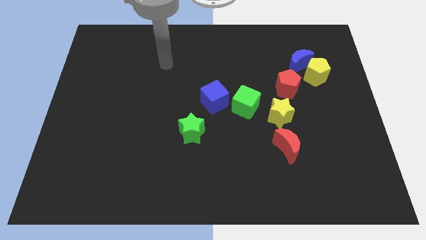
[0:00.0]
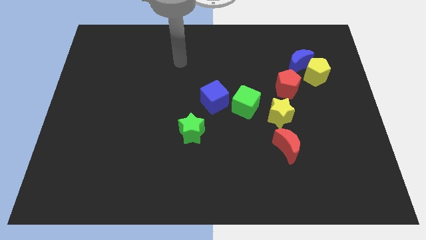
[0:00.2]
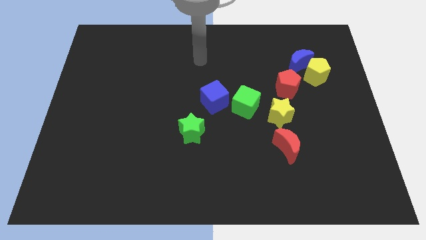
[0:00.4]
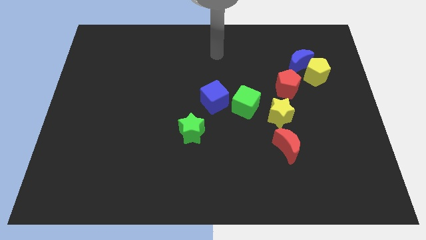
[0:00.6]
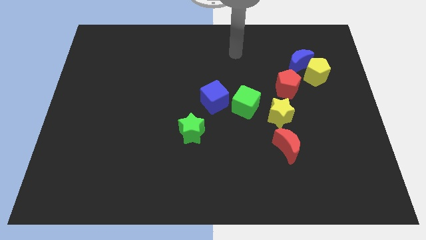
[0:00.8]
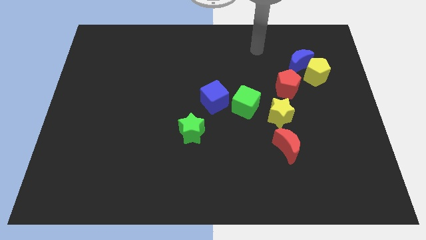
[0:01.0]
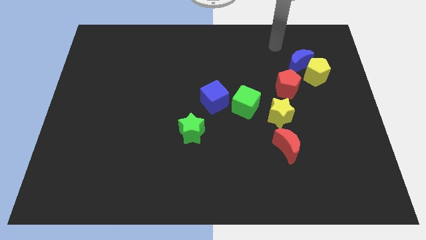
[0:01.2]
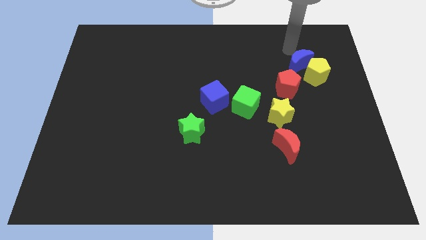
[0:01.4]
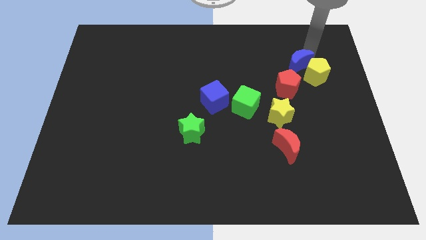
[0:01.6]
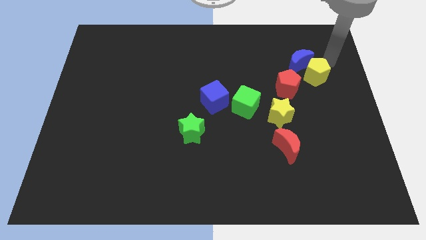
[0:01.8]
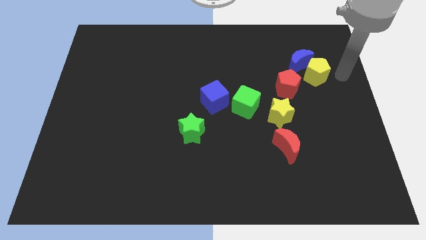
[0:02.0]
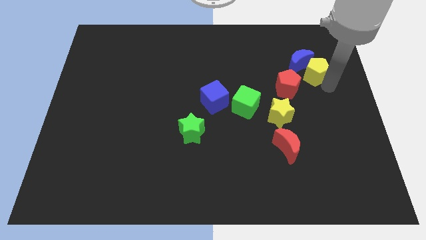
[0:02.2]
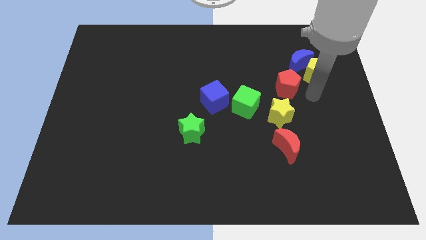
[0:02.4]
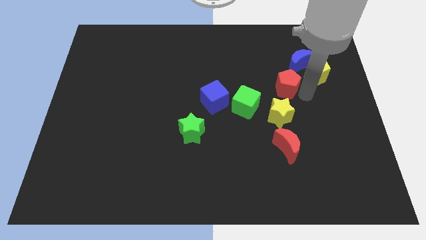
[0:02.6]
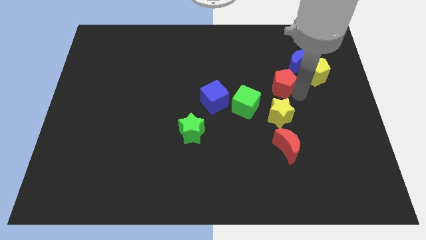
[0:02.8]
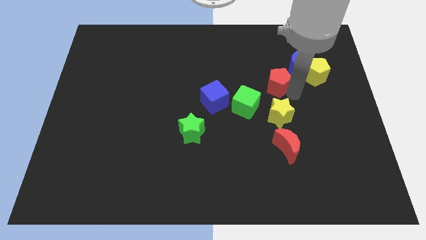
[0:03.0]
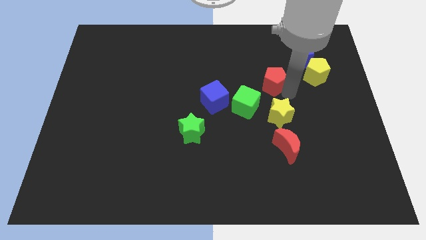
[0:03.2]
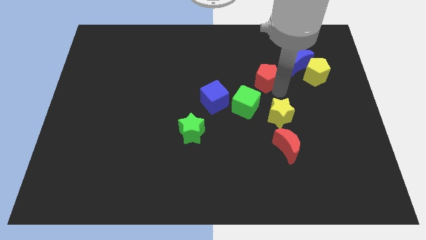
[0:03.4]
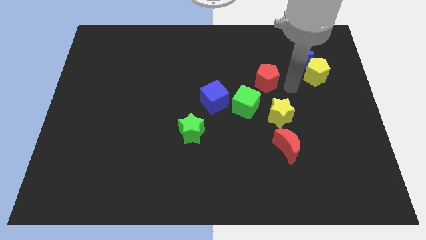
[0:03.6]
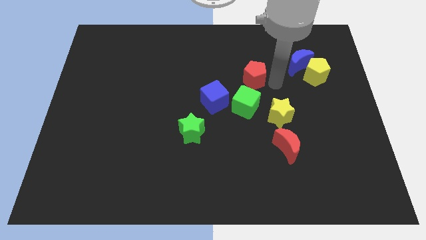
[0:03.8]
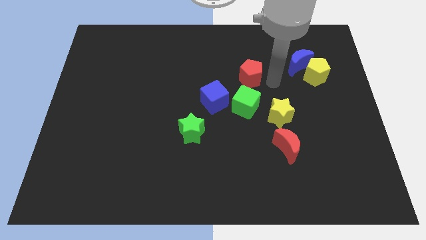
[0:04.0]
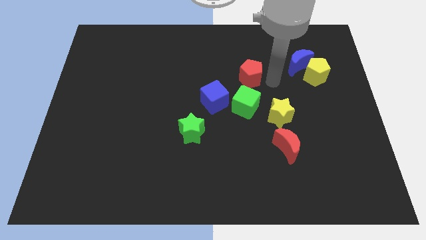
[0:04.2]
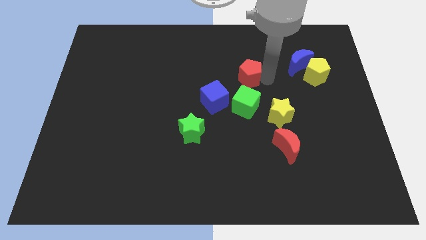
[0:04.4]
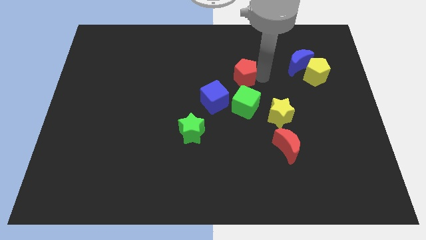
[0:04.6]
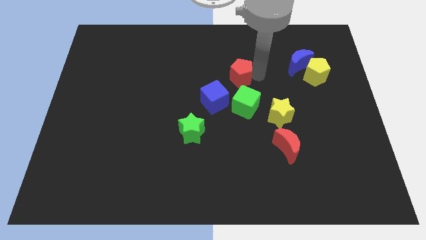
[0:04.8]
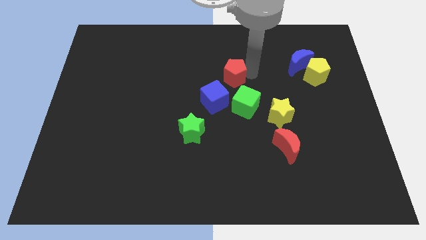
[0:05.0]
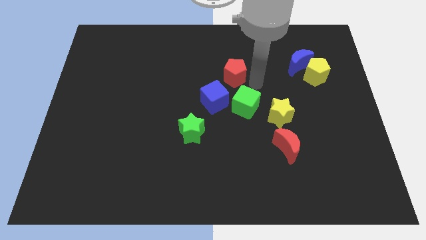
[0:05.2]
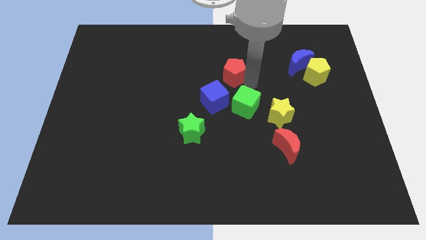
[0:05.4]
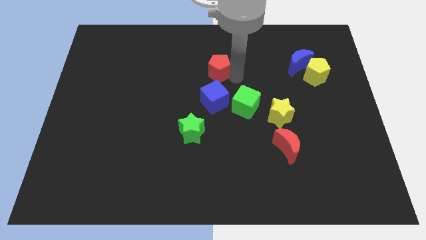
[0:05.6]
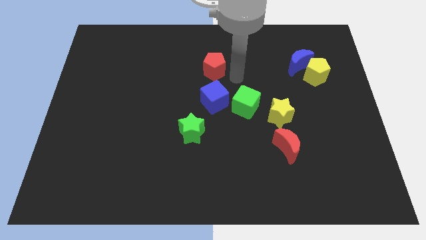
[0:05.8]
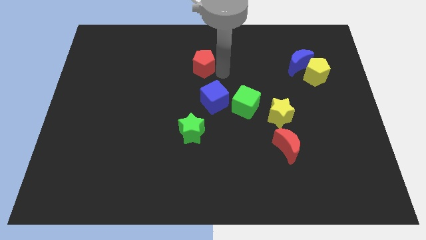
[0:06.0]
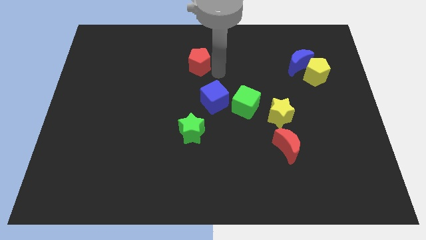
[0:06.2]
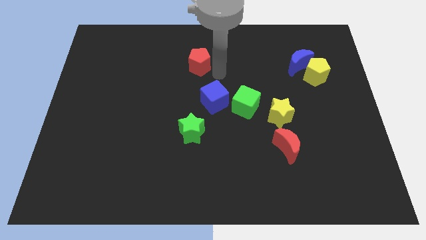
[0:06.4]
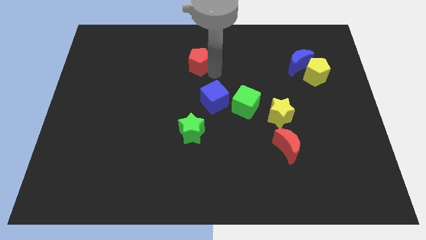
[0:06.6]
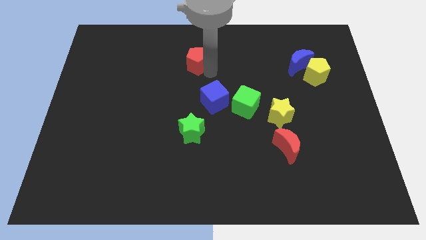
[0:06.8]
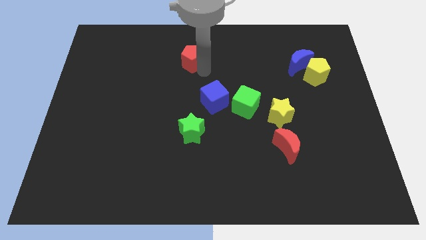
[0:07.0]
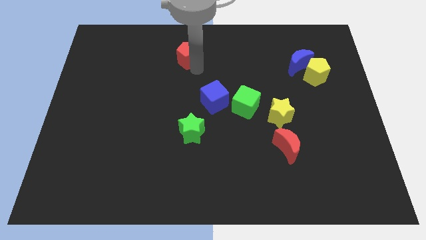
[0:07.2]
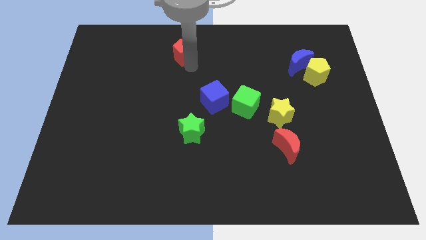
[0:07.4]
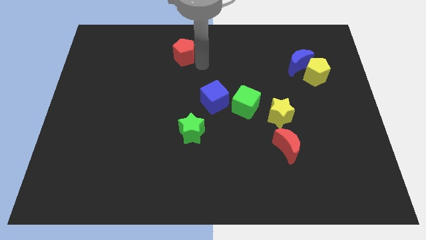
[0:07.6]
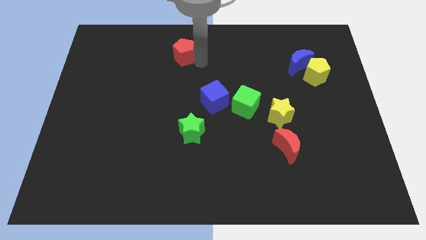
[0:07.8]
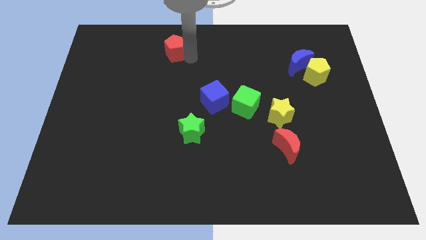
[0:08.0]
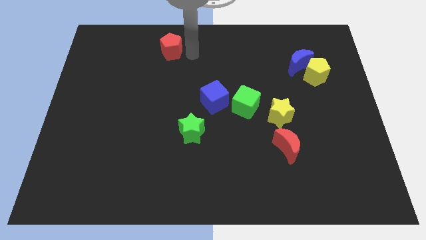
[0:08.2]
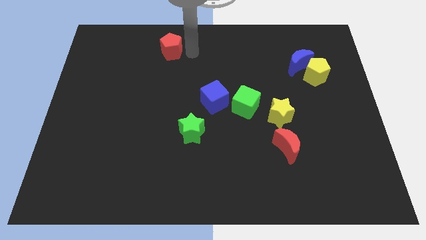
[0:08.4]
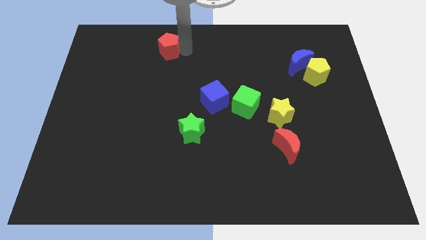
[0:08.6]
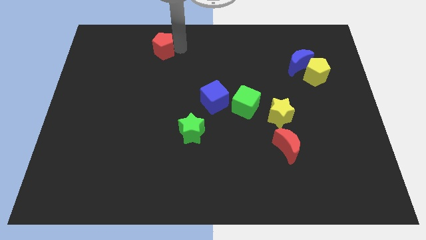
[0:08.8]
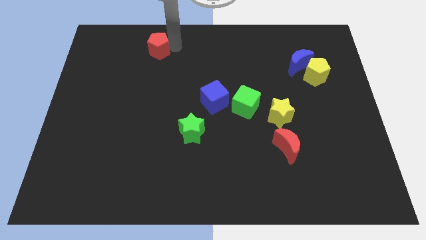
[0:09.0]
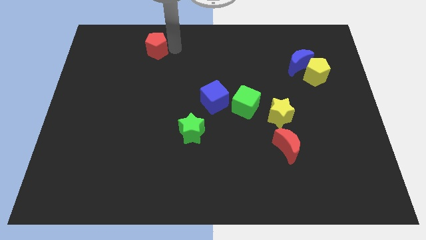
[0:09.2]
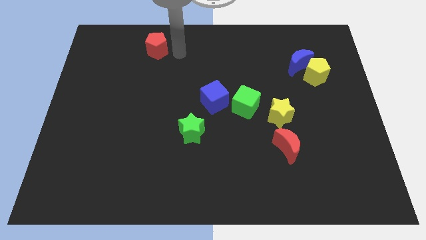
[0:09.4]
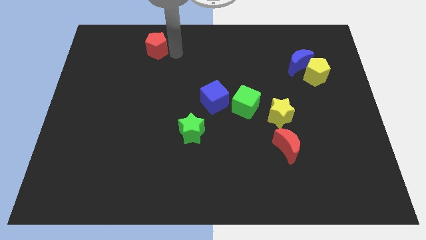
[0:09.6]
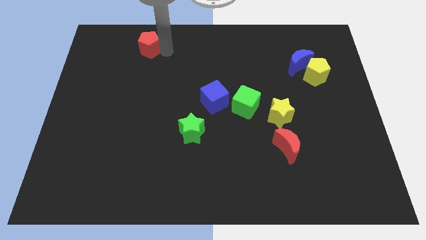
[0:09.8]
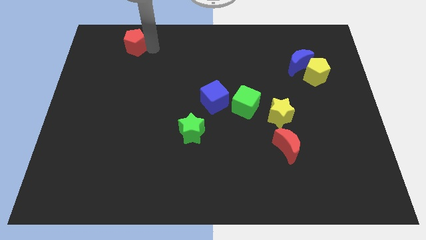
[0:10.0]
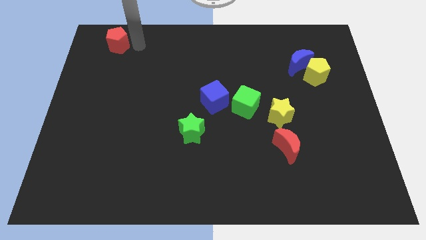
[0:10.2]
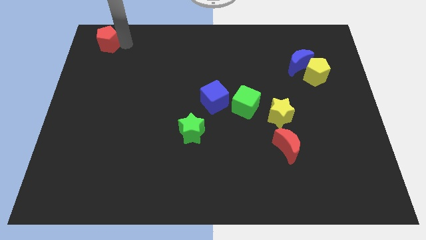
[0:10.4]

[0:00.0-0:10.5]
push the red pentagon to the upper left corner
